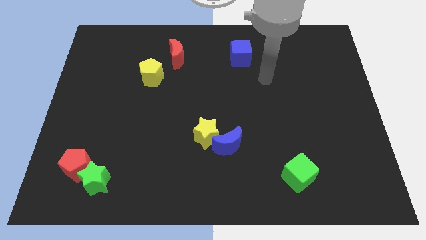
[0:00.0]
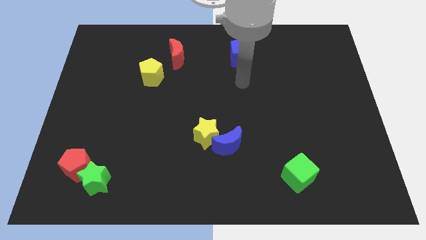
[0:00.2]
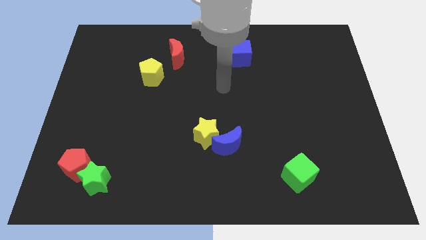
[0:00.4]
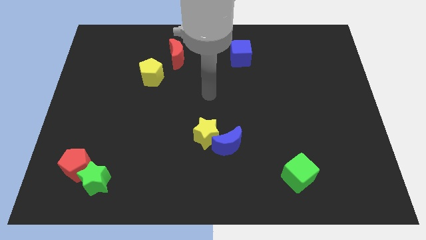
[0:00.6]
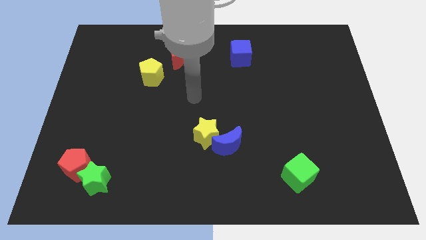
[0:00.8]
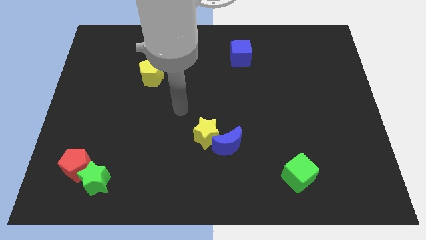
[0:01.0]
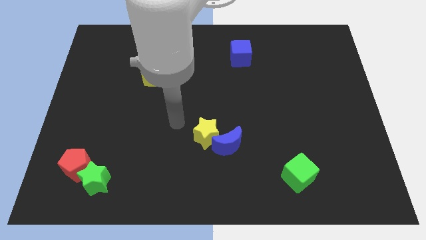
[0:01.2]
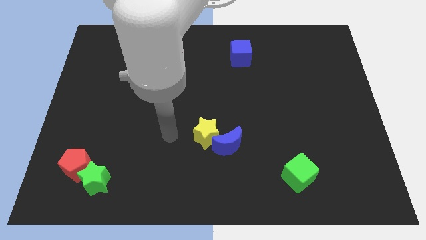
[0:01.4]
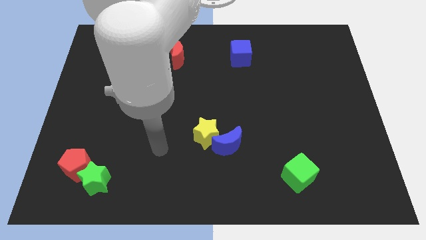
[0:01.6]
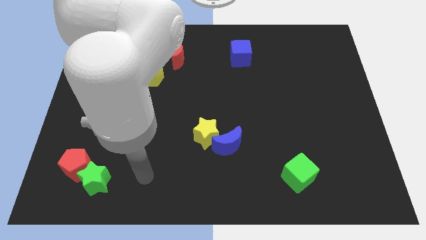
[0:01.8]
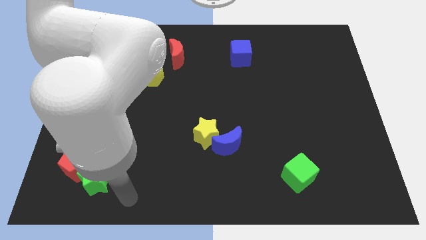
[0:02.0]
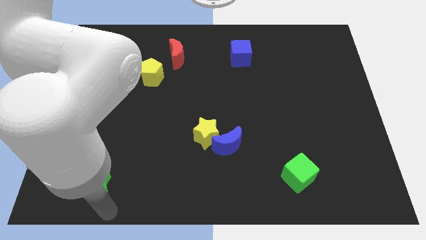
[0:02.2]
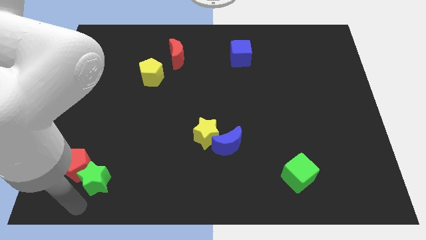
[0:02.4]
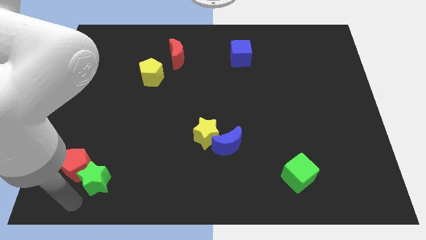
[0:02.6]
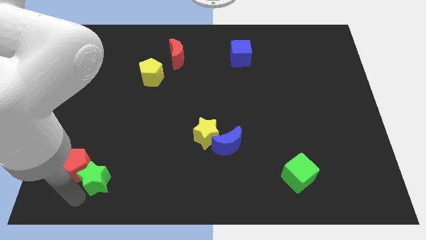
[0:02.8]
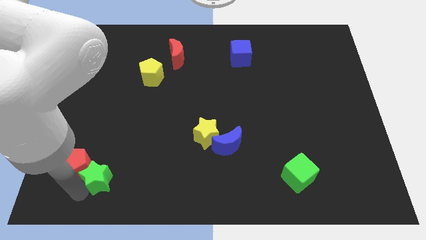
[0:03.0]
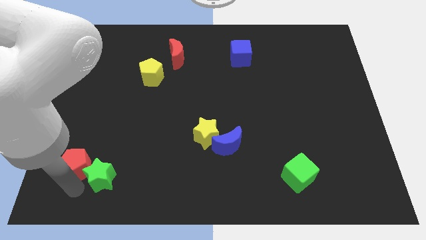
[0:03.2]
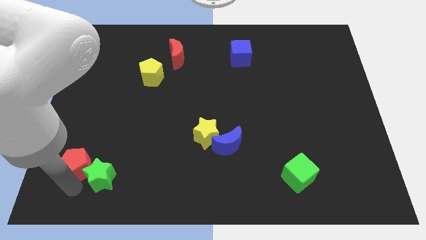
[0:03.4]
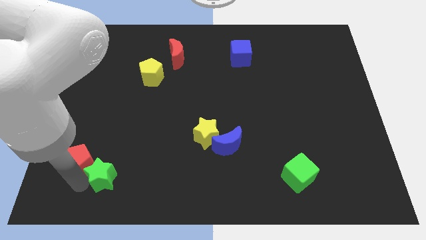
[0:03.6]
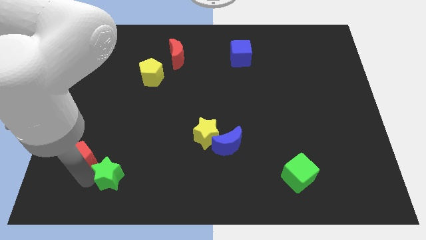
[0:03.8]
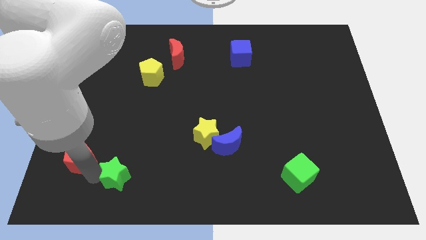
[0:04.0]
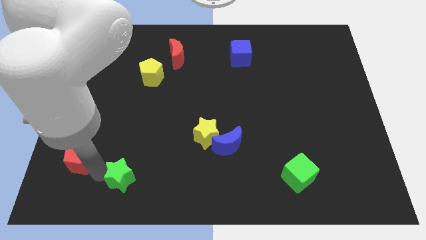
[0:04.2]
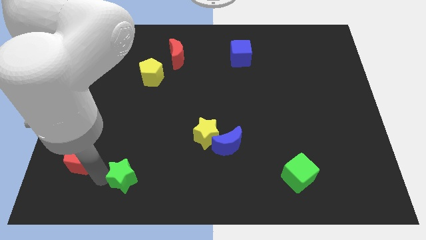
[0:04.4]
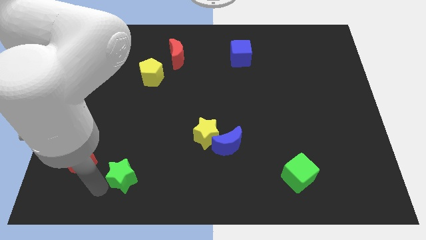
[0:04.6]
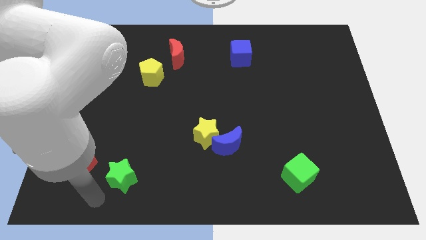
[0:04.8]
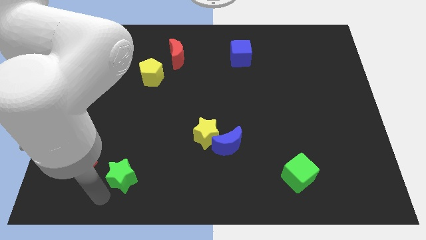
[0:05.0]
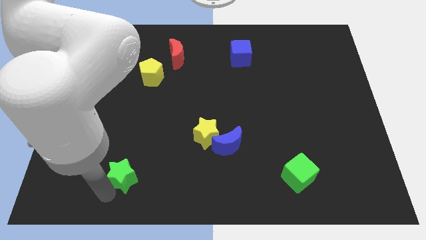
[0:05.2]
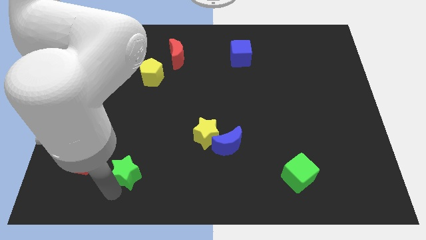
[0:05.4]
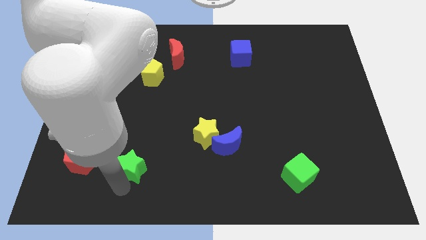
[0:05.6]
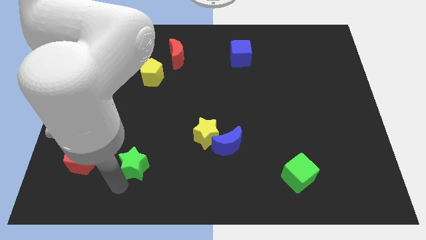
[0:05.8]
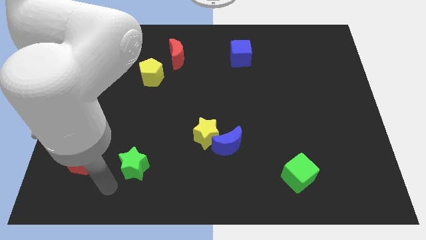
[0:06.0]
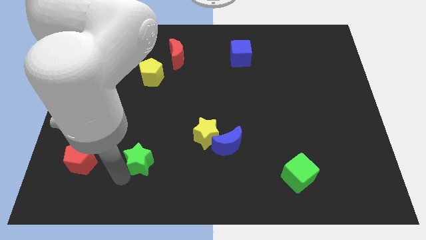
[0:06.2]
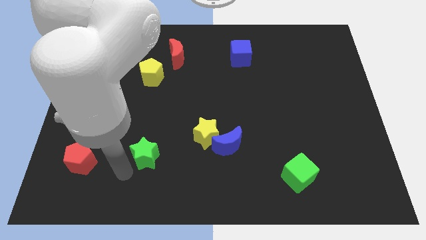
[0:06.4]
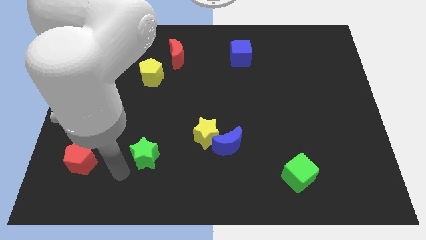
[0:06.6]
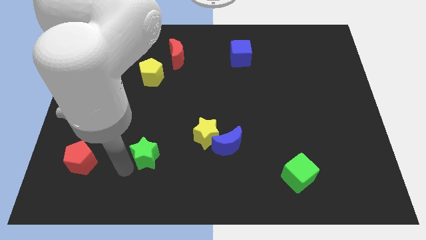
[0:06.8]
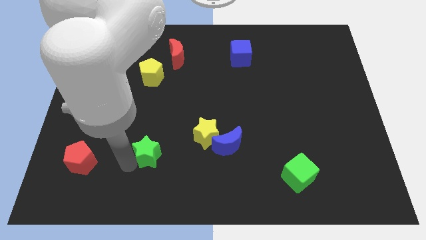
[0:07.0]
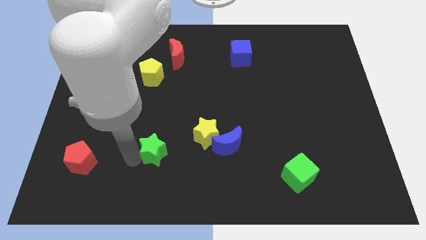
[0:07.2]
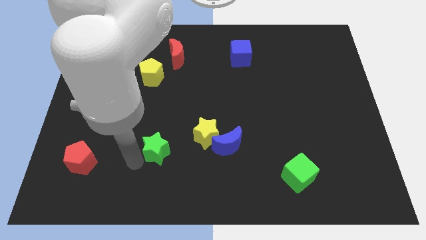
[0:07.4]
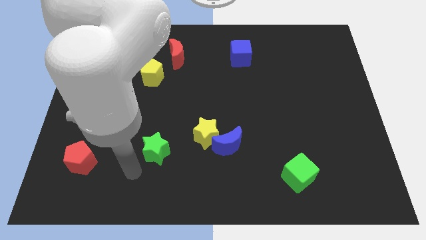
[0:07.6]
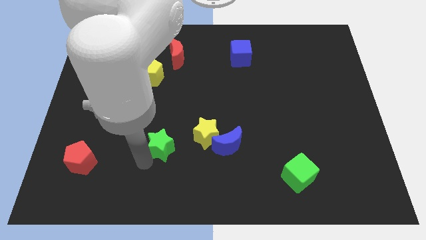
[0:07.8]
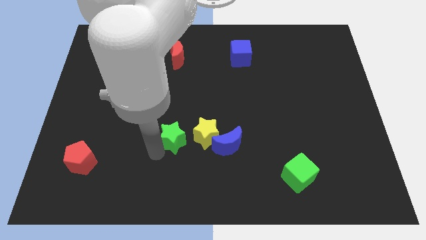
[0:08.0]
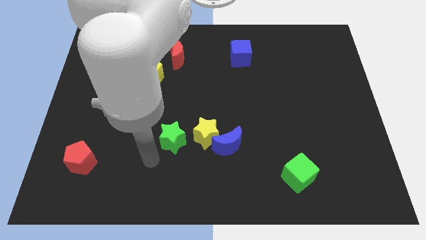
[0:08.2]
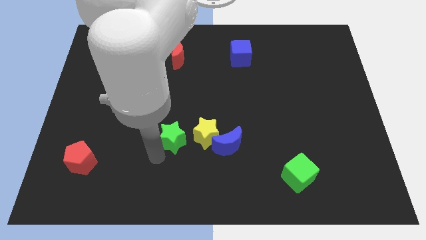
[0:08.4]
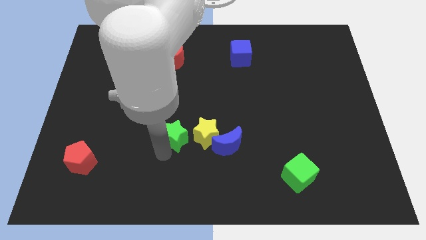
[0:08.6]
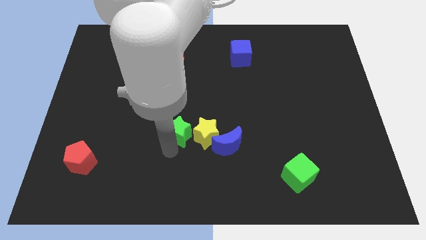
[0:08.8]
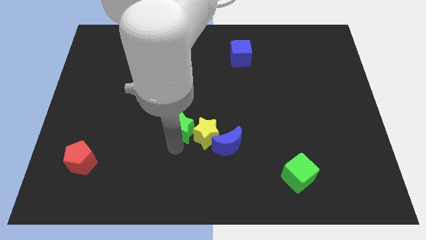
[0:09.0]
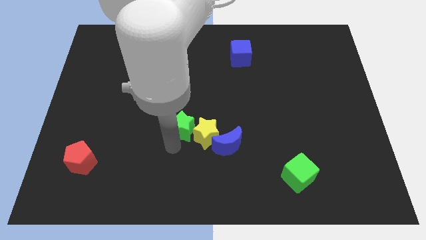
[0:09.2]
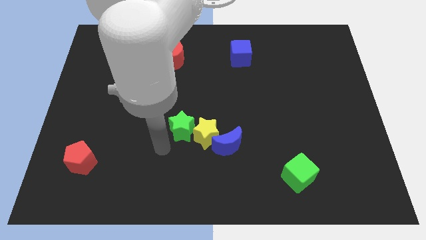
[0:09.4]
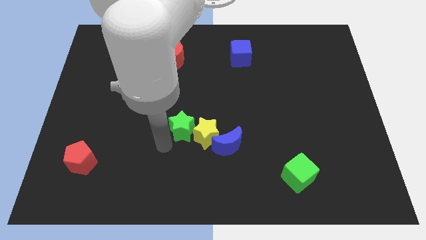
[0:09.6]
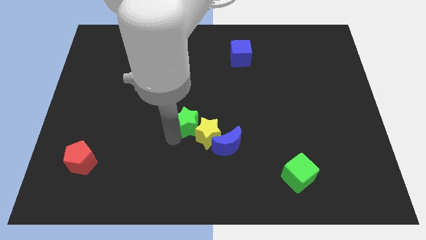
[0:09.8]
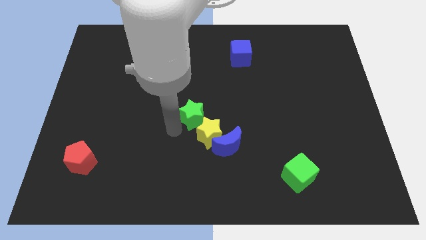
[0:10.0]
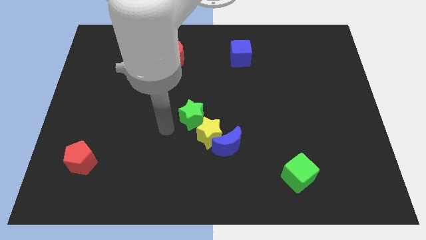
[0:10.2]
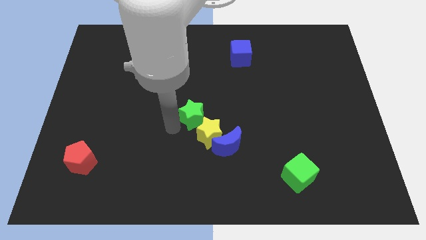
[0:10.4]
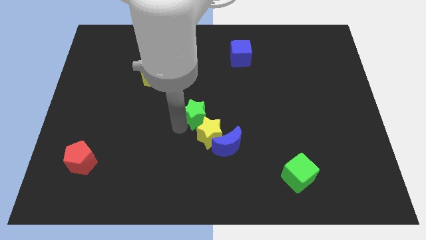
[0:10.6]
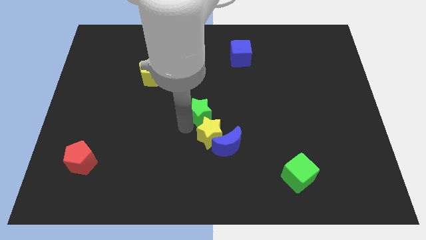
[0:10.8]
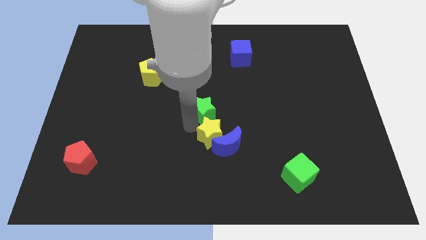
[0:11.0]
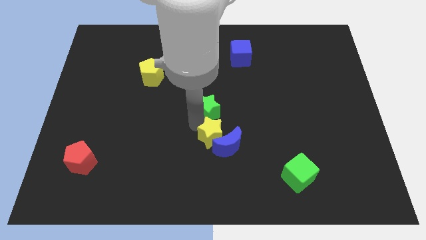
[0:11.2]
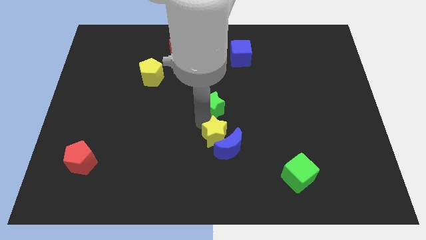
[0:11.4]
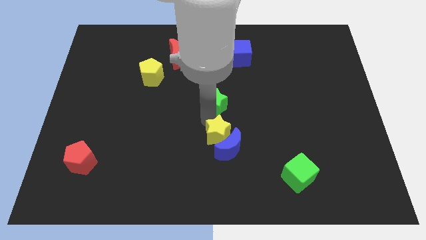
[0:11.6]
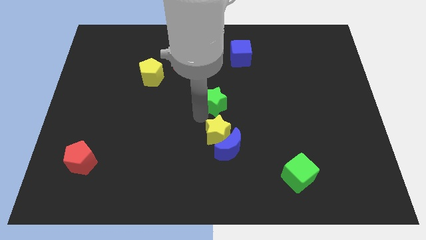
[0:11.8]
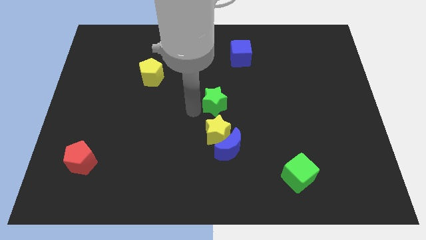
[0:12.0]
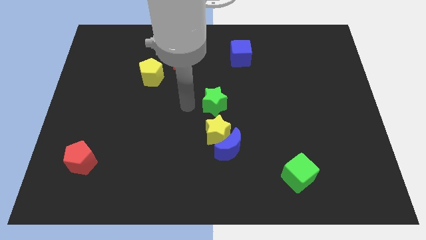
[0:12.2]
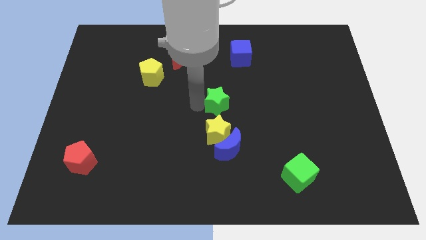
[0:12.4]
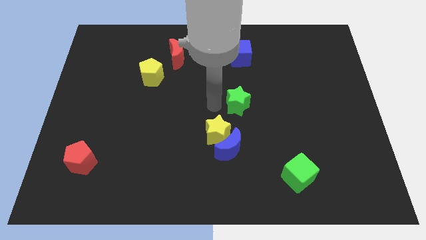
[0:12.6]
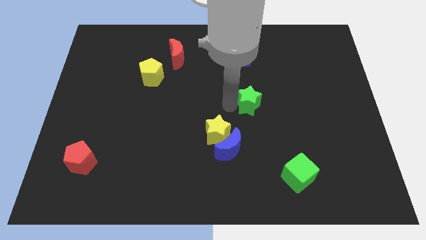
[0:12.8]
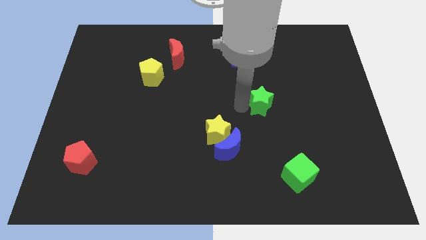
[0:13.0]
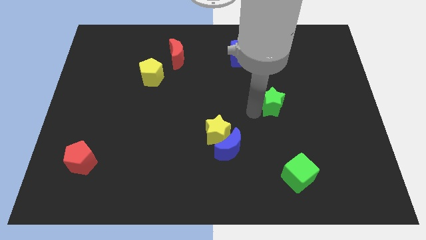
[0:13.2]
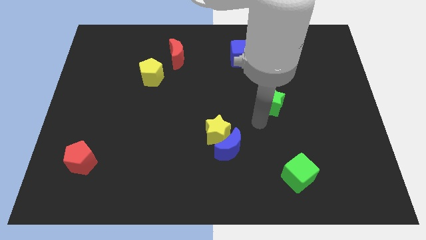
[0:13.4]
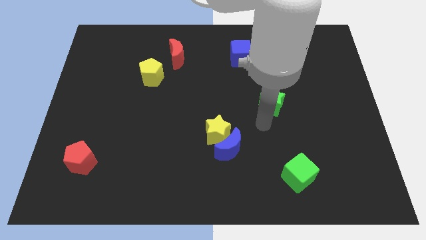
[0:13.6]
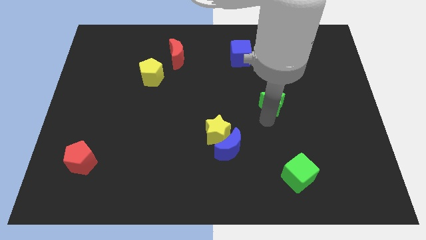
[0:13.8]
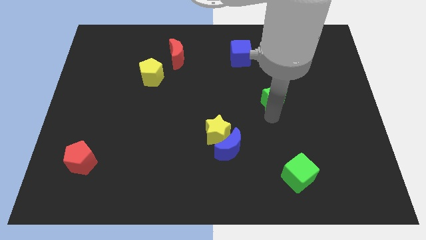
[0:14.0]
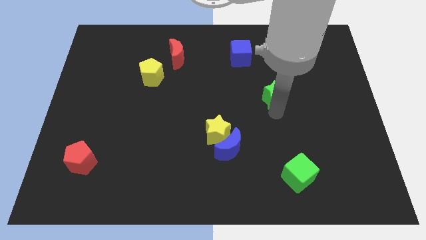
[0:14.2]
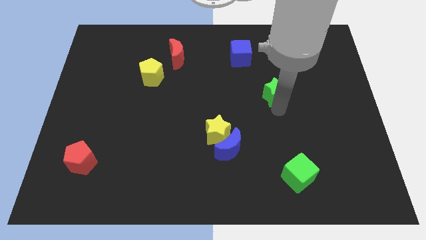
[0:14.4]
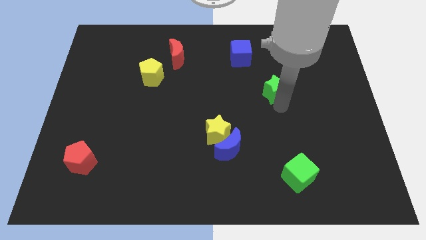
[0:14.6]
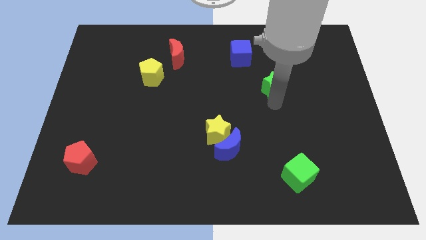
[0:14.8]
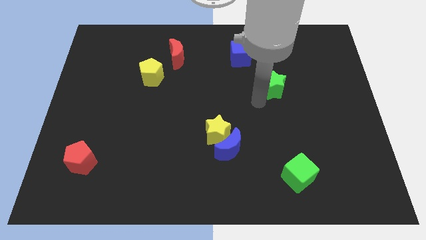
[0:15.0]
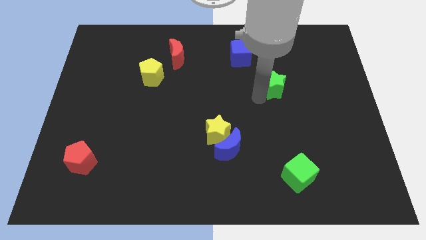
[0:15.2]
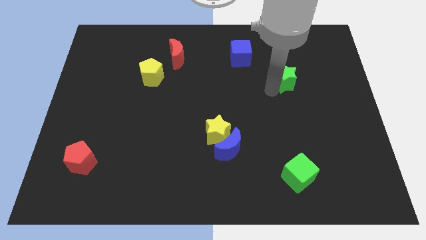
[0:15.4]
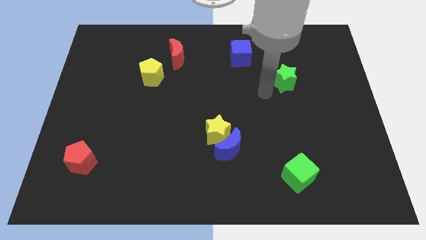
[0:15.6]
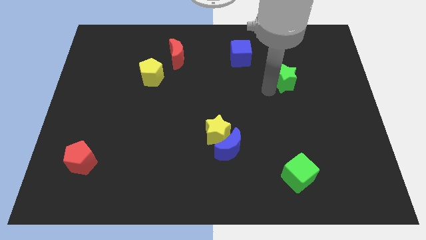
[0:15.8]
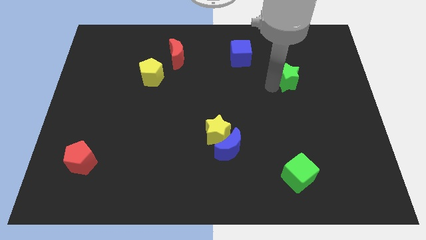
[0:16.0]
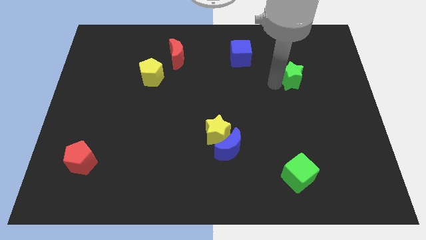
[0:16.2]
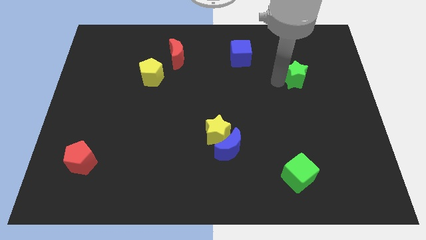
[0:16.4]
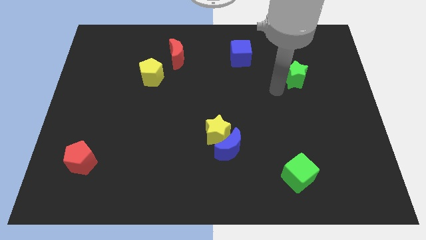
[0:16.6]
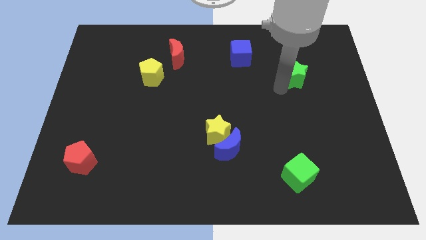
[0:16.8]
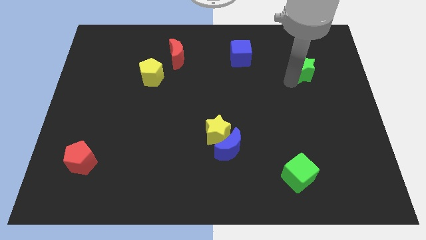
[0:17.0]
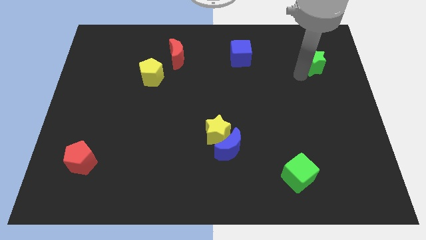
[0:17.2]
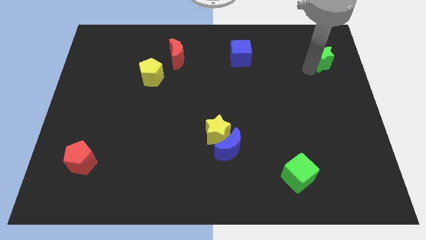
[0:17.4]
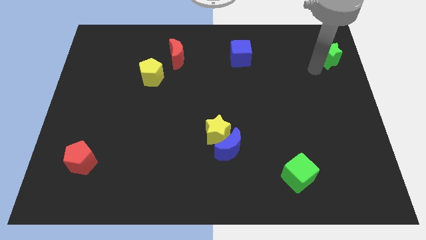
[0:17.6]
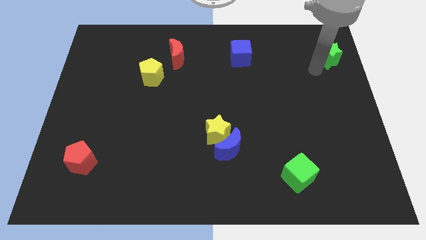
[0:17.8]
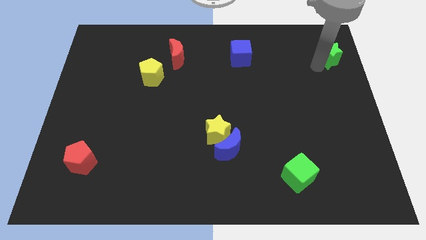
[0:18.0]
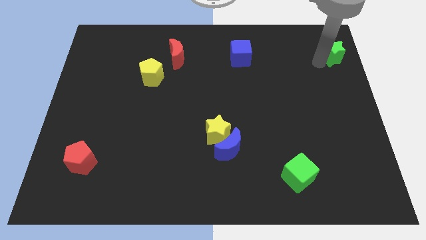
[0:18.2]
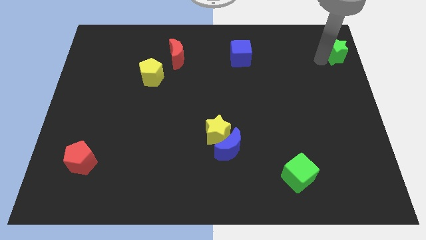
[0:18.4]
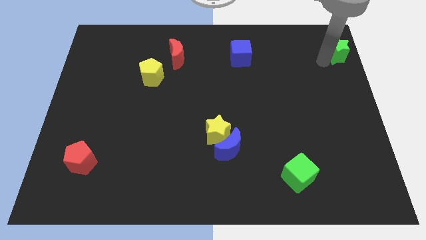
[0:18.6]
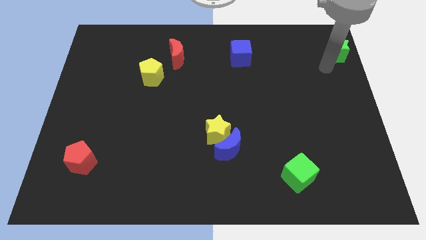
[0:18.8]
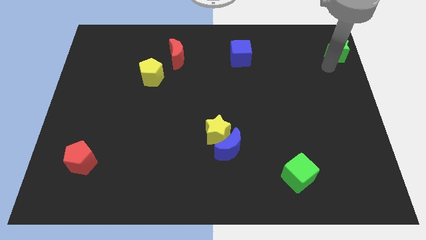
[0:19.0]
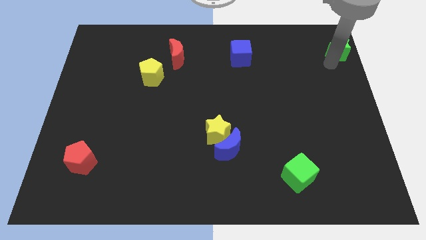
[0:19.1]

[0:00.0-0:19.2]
push the green star to the top right
